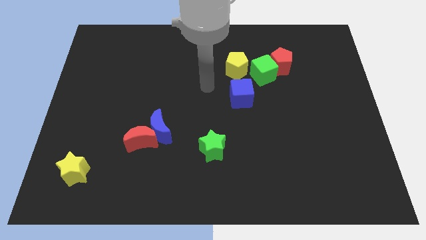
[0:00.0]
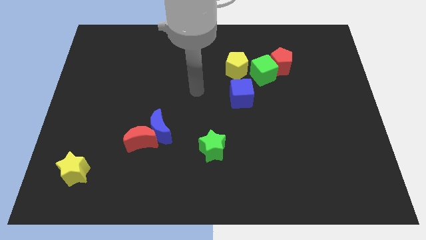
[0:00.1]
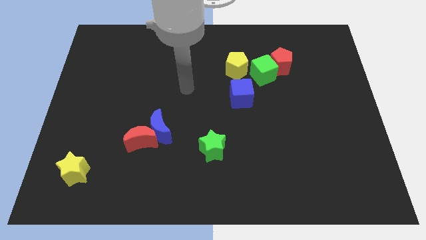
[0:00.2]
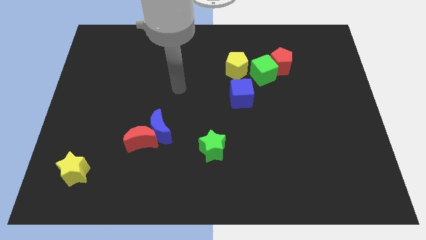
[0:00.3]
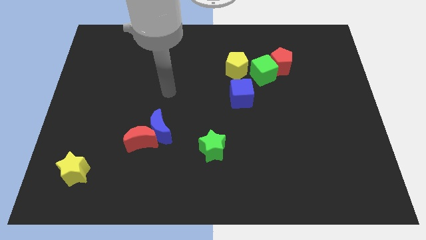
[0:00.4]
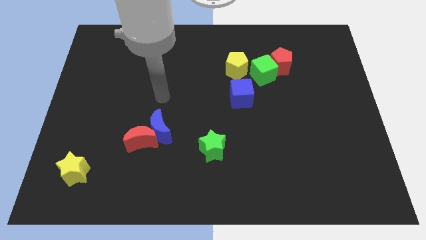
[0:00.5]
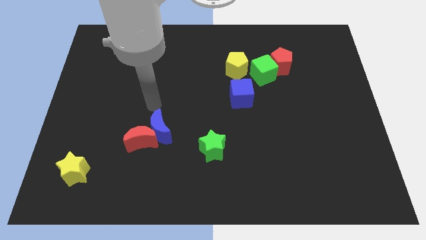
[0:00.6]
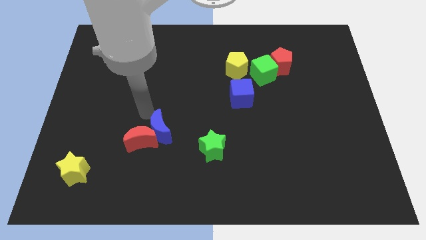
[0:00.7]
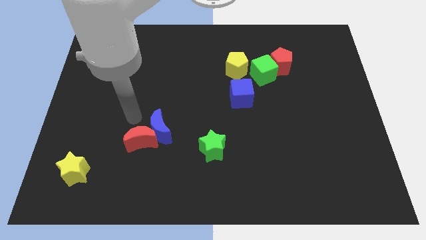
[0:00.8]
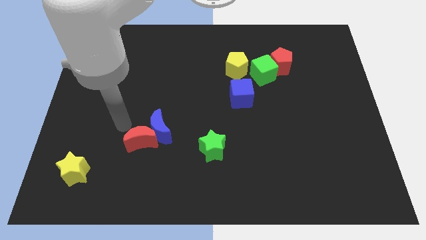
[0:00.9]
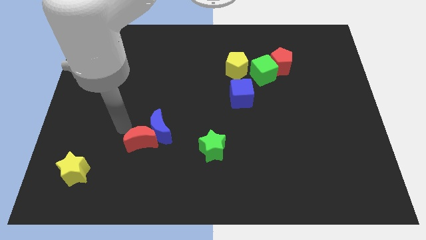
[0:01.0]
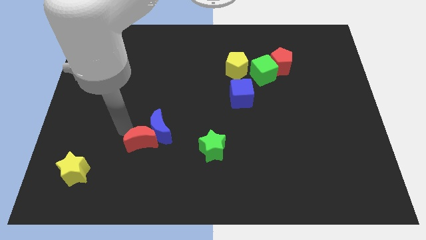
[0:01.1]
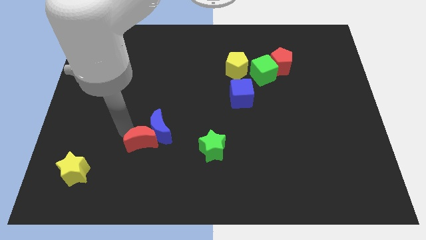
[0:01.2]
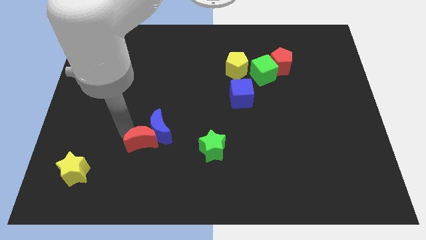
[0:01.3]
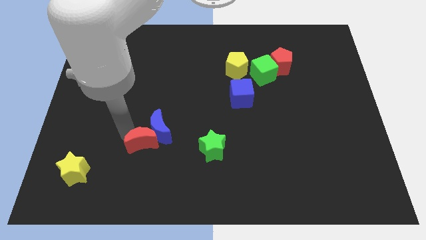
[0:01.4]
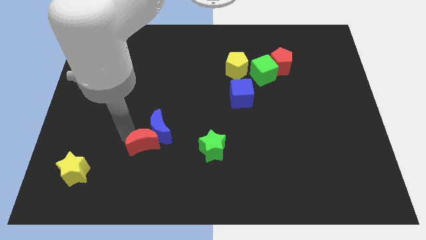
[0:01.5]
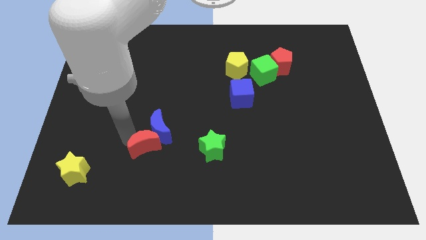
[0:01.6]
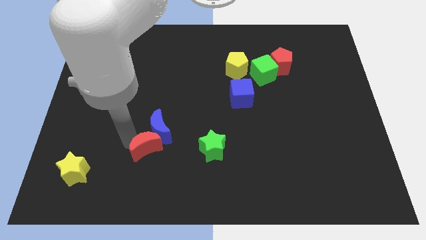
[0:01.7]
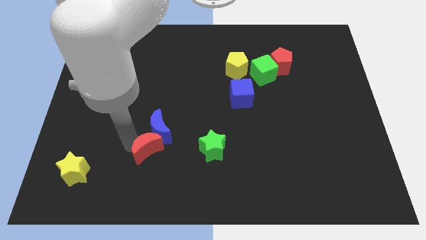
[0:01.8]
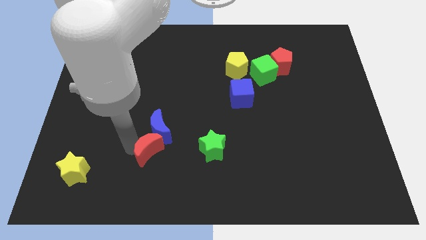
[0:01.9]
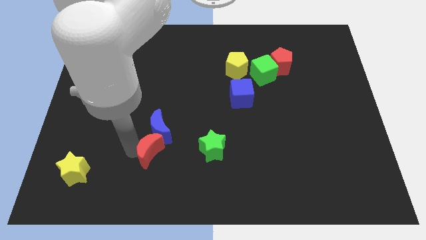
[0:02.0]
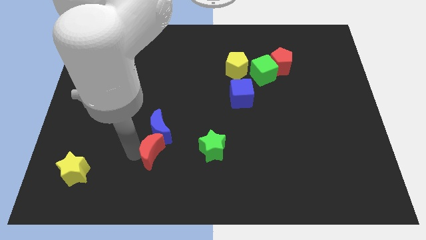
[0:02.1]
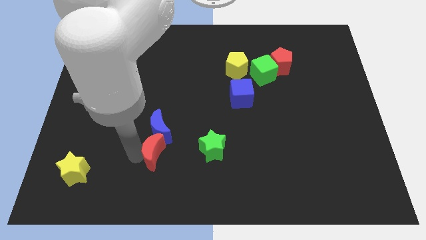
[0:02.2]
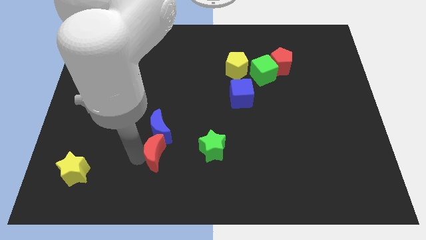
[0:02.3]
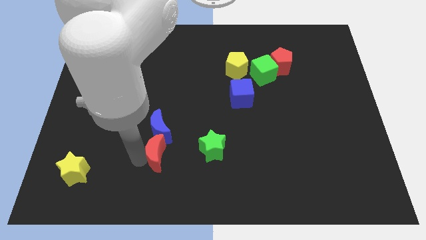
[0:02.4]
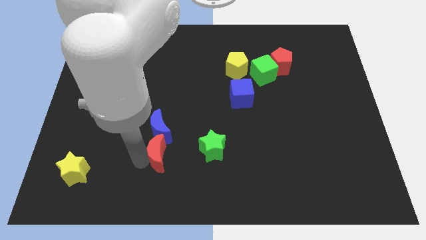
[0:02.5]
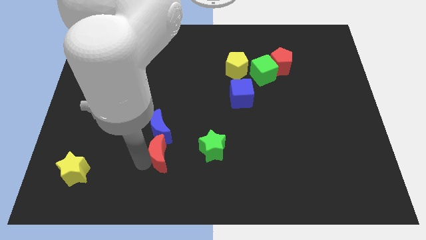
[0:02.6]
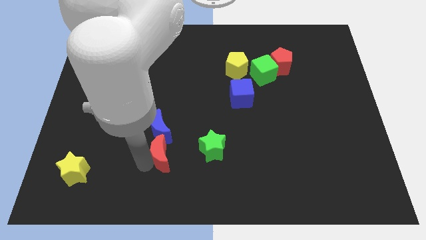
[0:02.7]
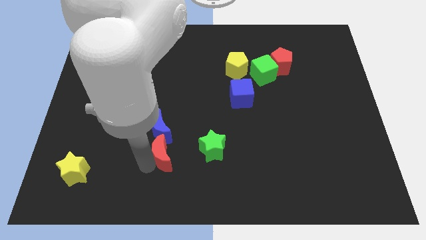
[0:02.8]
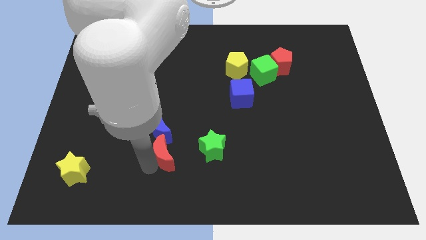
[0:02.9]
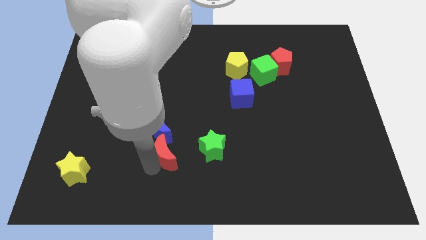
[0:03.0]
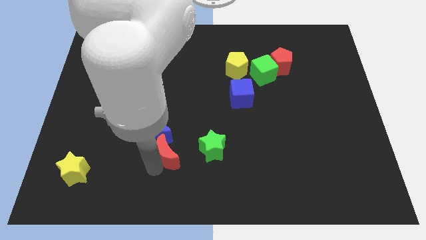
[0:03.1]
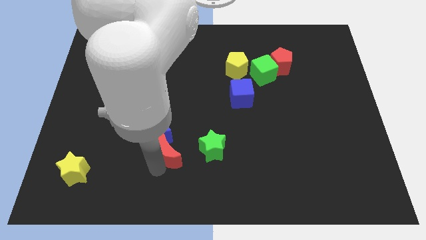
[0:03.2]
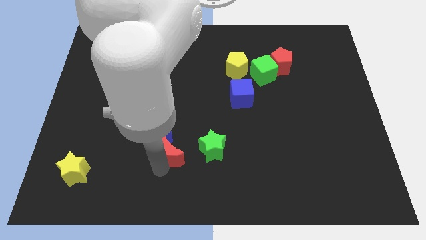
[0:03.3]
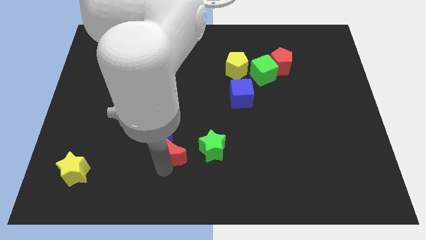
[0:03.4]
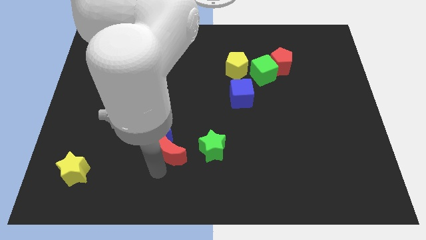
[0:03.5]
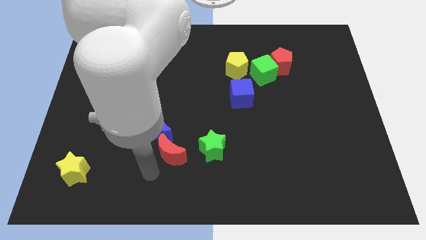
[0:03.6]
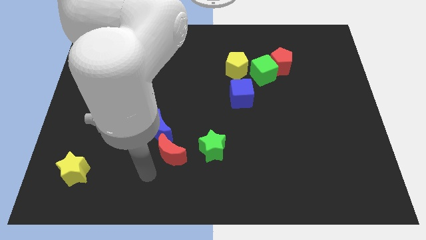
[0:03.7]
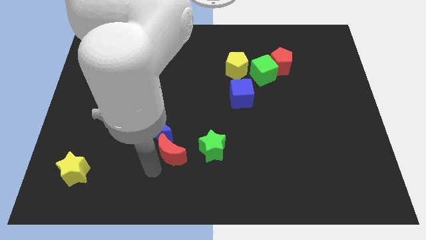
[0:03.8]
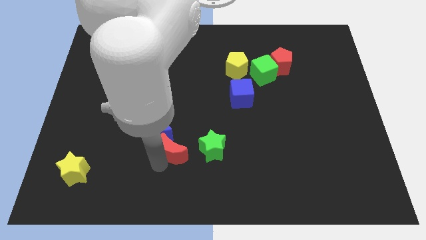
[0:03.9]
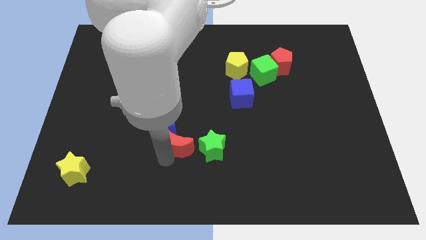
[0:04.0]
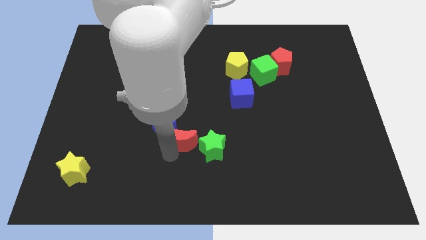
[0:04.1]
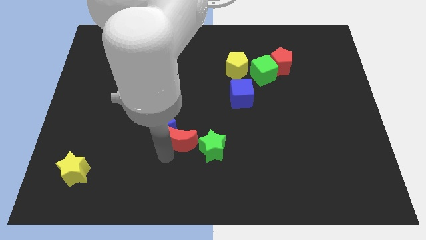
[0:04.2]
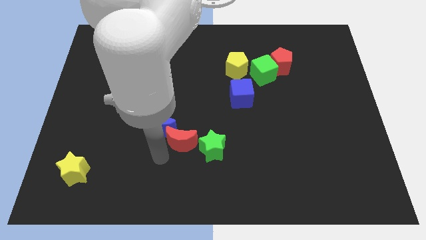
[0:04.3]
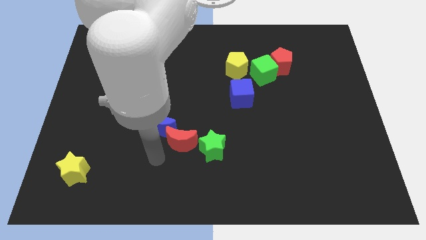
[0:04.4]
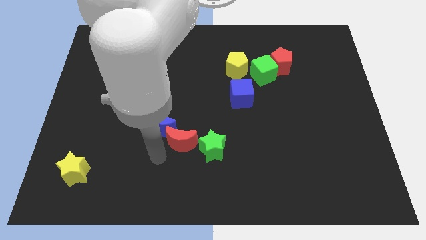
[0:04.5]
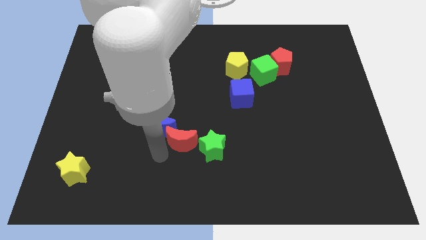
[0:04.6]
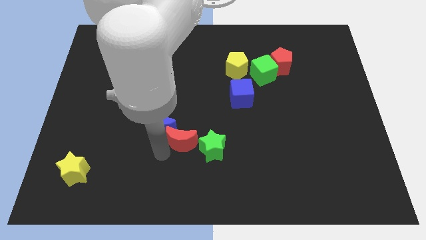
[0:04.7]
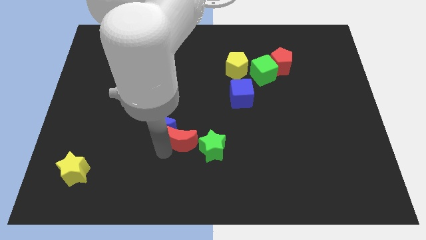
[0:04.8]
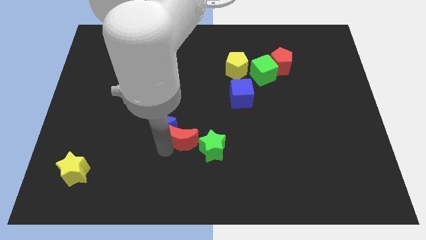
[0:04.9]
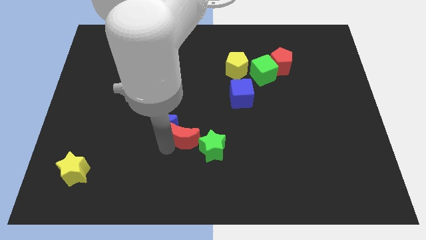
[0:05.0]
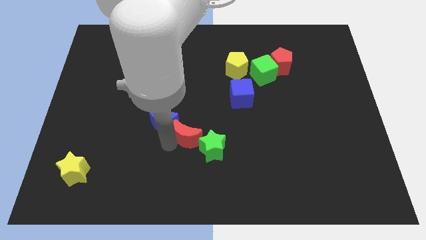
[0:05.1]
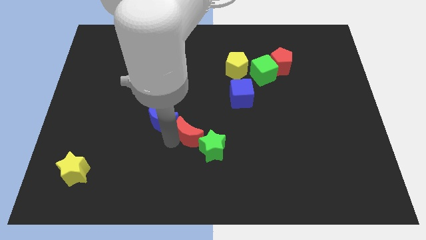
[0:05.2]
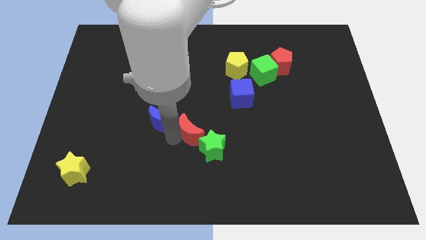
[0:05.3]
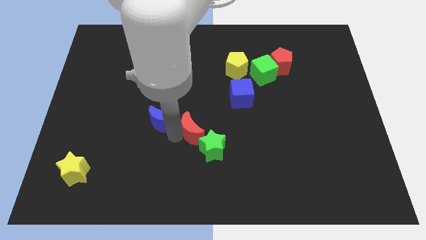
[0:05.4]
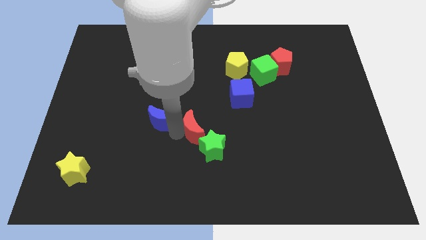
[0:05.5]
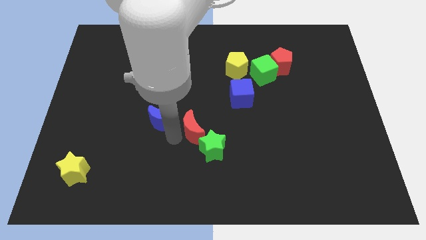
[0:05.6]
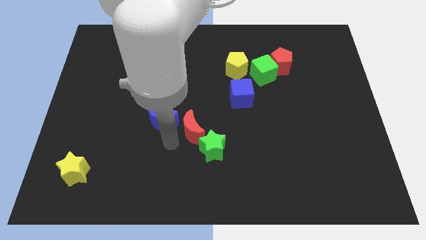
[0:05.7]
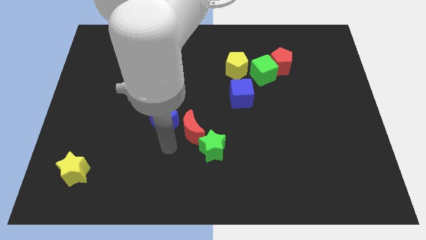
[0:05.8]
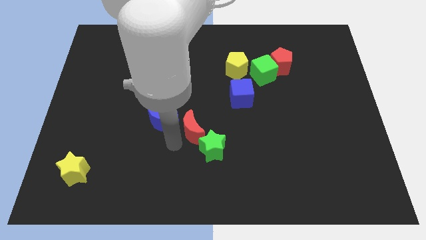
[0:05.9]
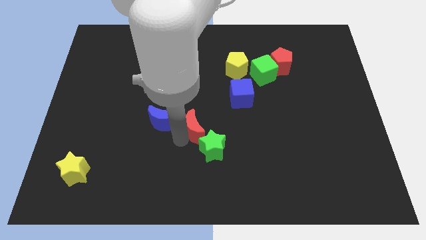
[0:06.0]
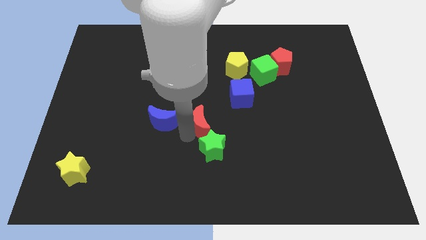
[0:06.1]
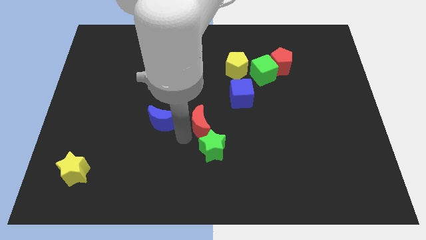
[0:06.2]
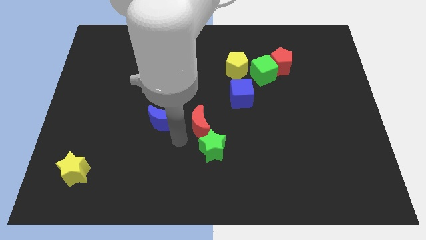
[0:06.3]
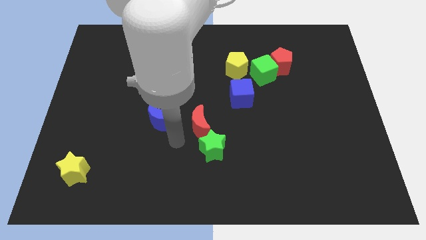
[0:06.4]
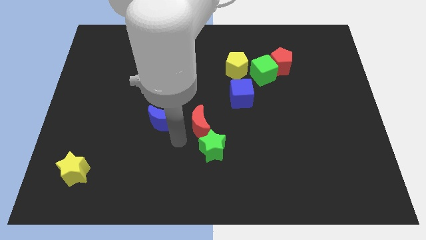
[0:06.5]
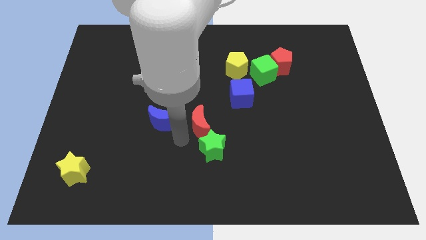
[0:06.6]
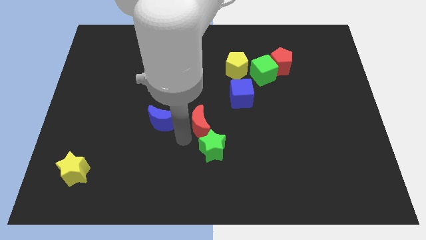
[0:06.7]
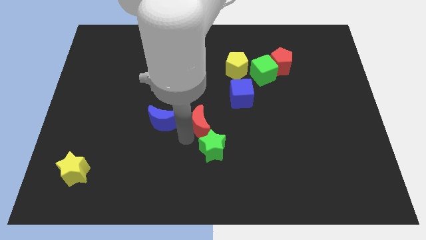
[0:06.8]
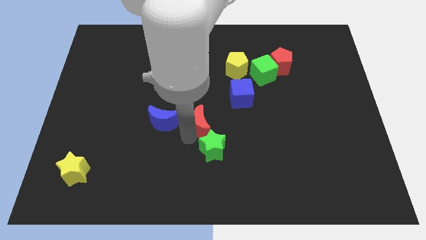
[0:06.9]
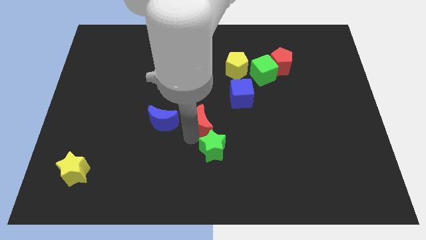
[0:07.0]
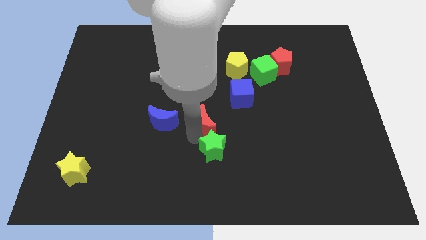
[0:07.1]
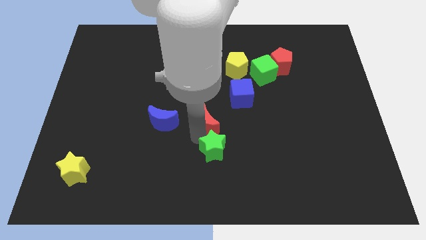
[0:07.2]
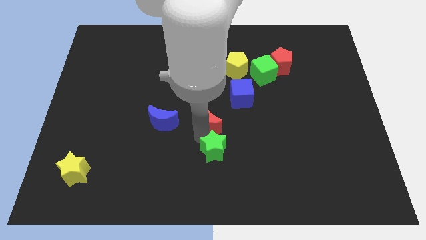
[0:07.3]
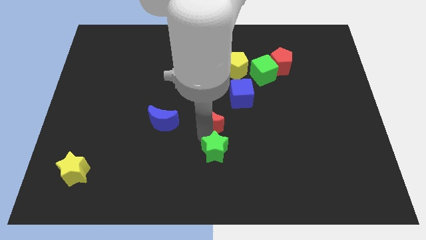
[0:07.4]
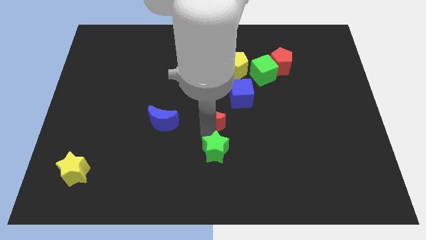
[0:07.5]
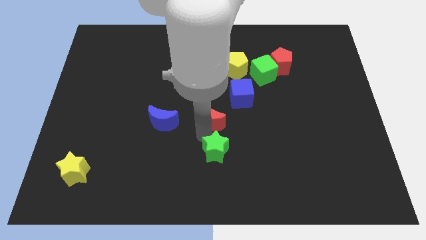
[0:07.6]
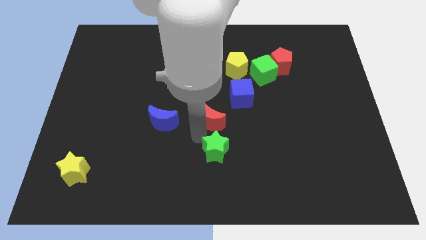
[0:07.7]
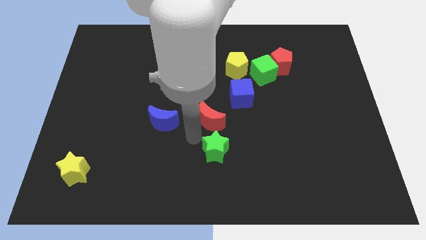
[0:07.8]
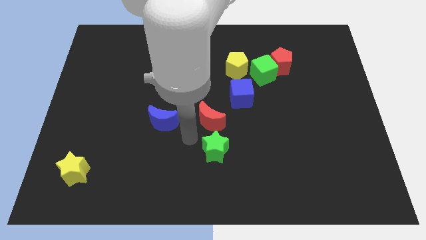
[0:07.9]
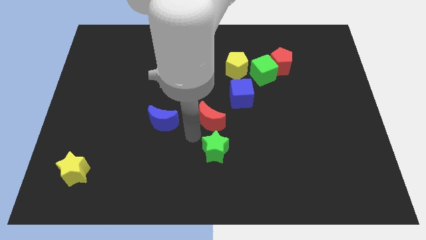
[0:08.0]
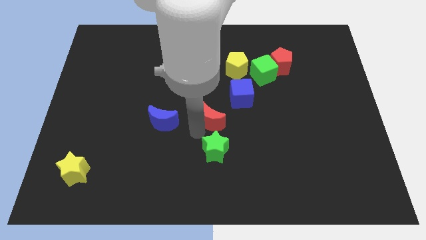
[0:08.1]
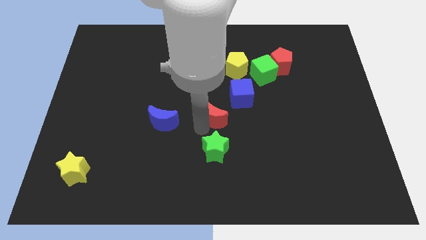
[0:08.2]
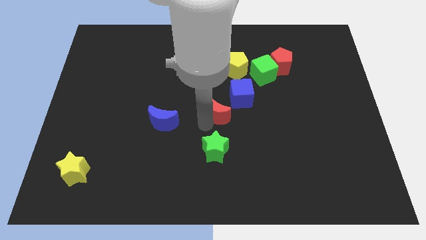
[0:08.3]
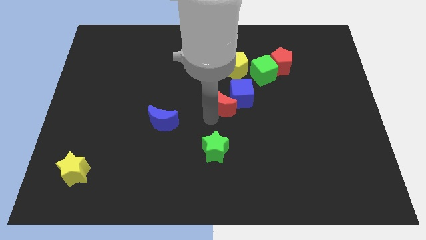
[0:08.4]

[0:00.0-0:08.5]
slide the red moon next to the blue cube
